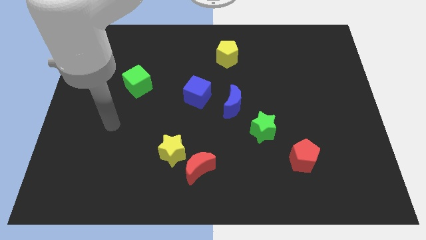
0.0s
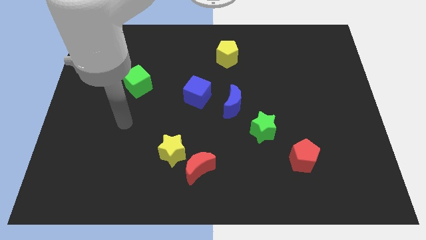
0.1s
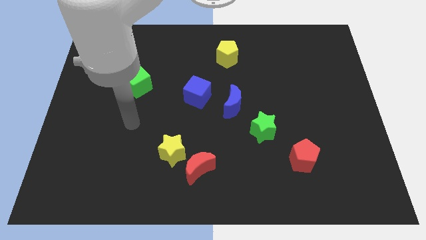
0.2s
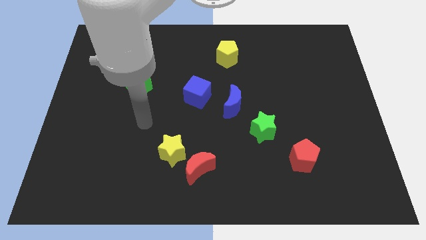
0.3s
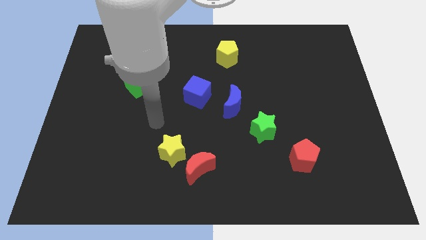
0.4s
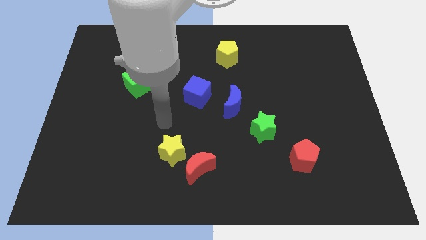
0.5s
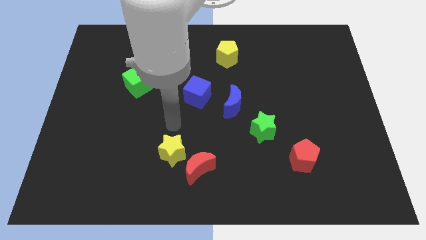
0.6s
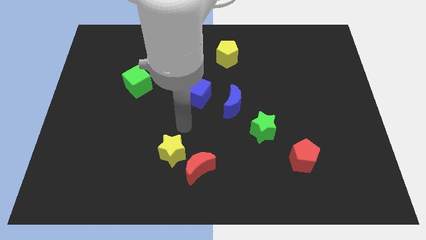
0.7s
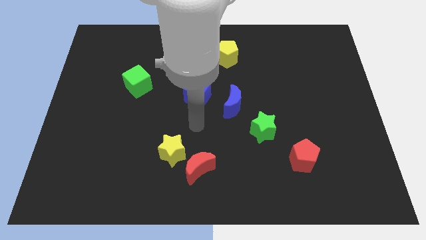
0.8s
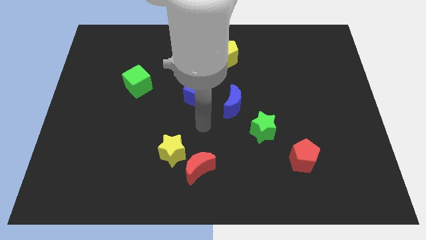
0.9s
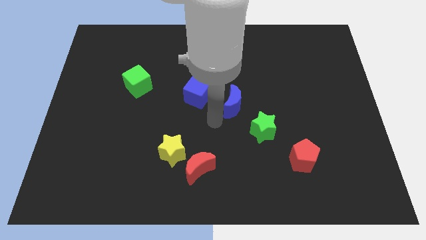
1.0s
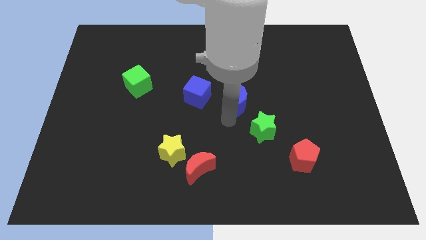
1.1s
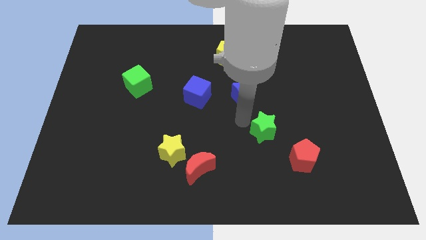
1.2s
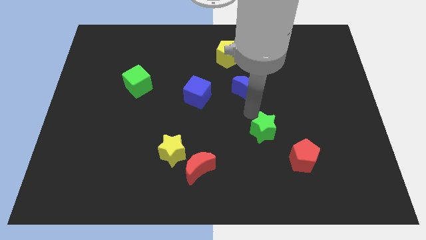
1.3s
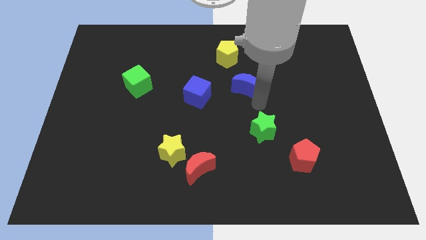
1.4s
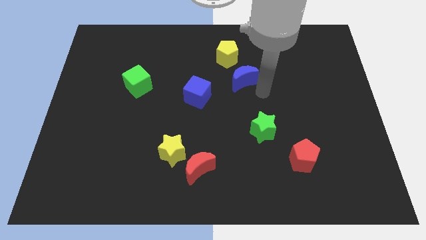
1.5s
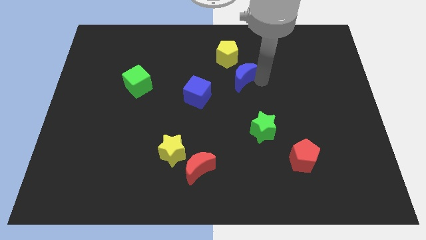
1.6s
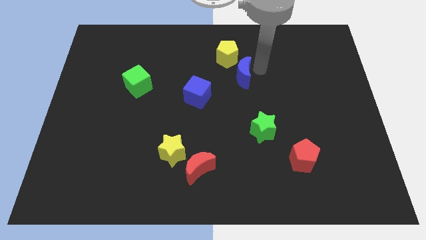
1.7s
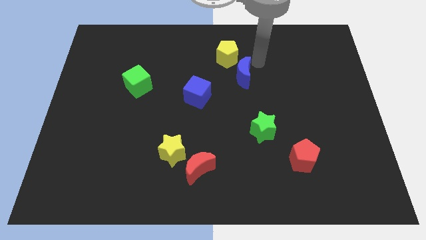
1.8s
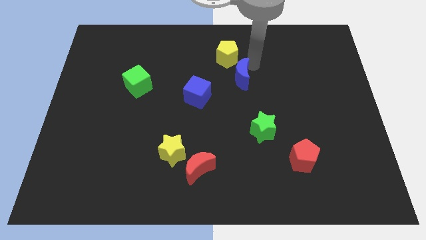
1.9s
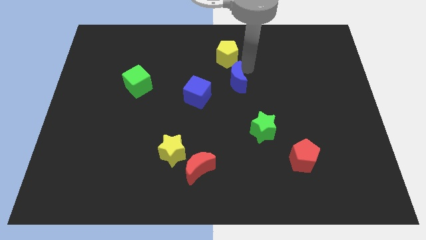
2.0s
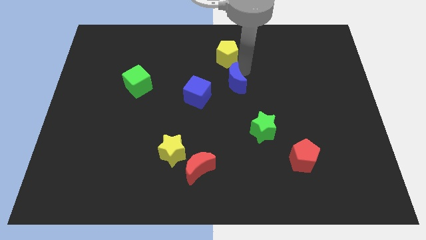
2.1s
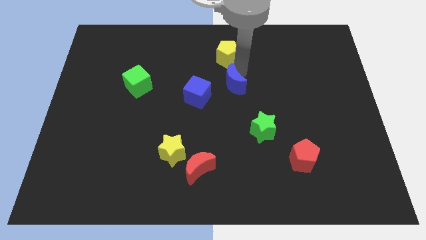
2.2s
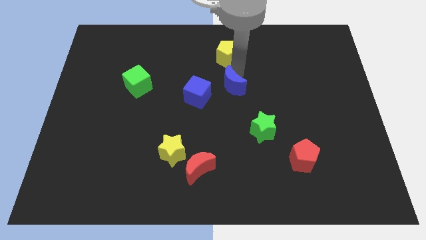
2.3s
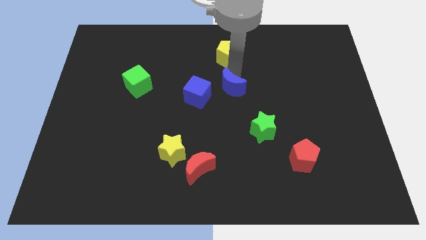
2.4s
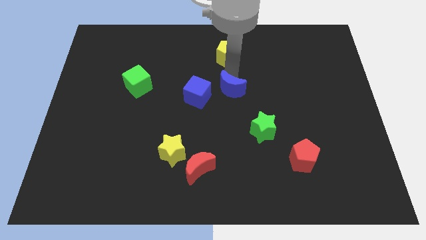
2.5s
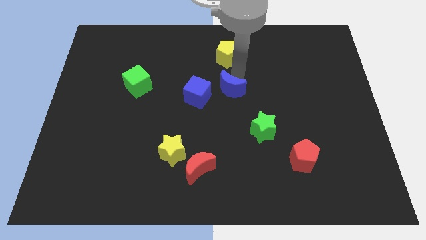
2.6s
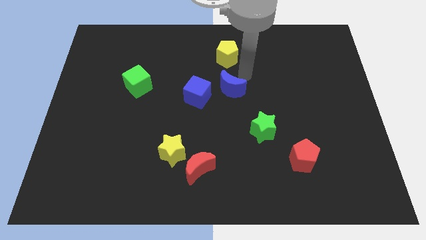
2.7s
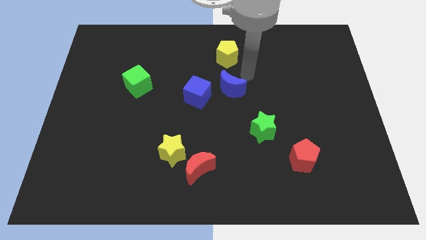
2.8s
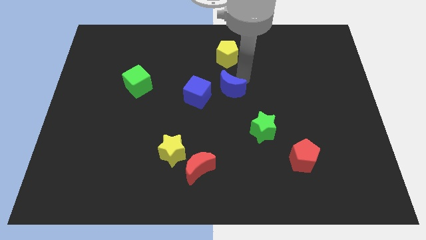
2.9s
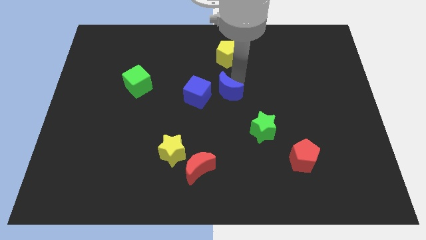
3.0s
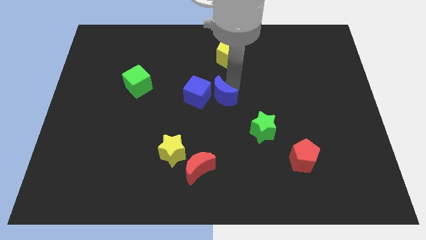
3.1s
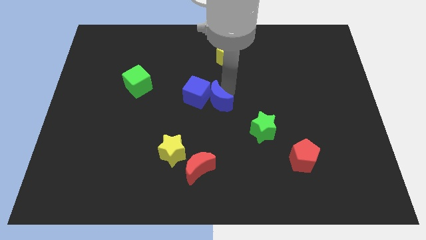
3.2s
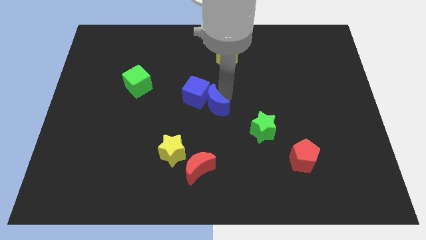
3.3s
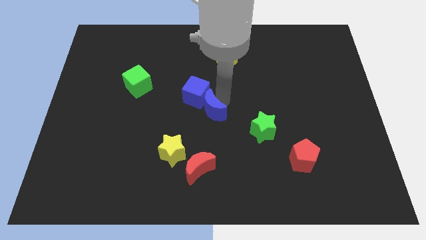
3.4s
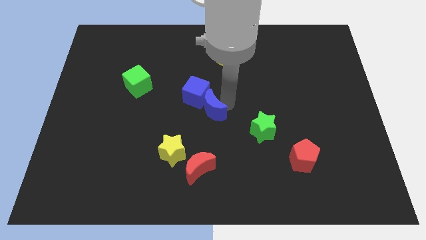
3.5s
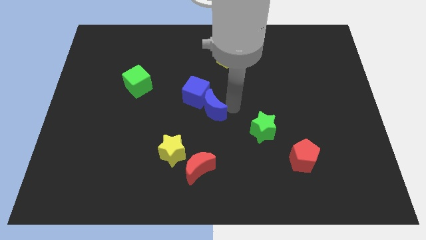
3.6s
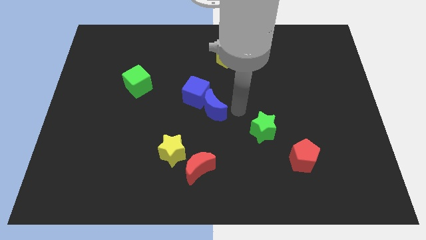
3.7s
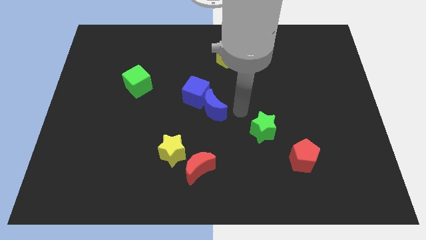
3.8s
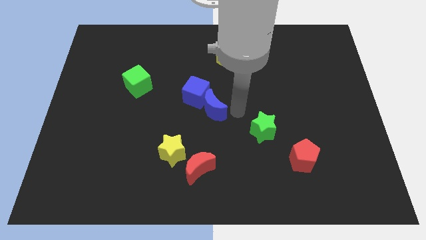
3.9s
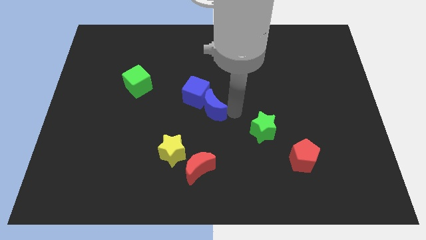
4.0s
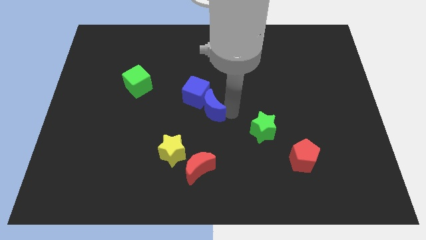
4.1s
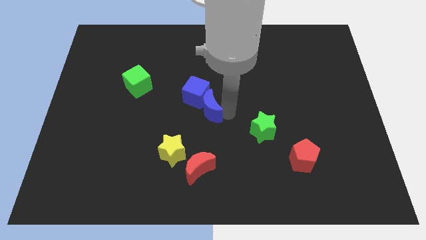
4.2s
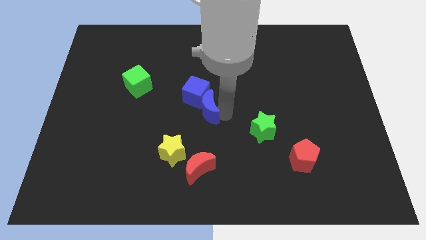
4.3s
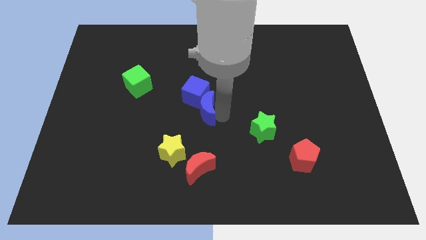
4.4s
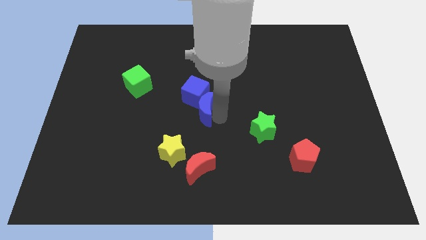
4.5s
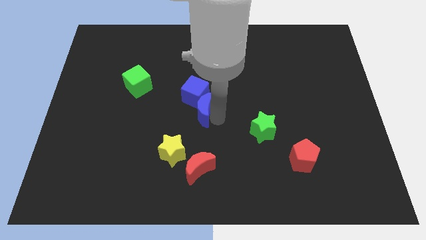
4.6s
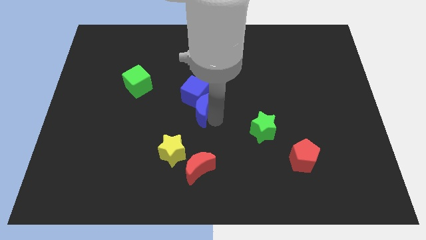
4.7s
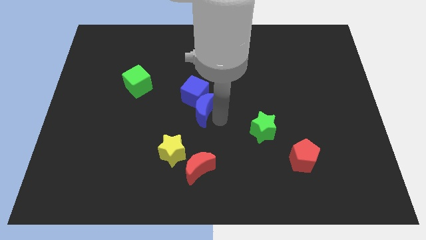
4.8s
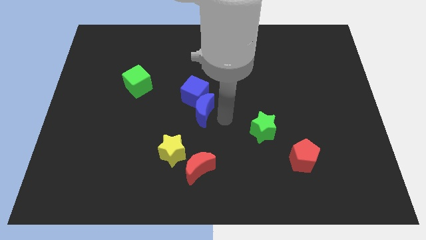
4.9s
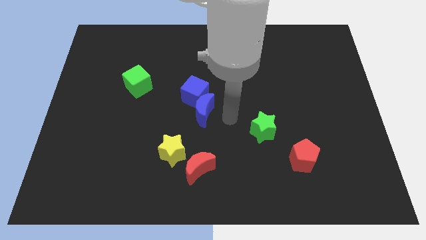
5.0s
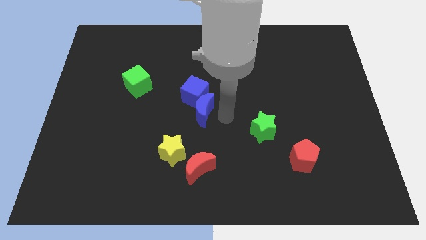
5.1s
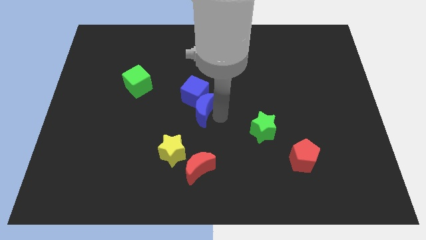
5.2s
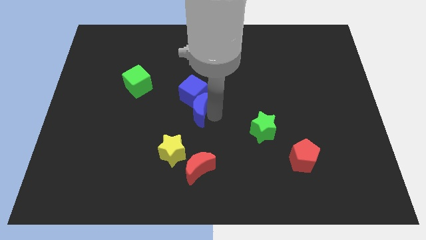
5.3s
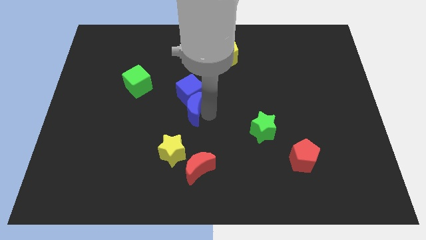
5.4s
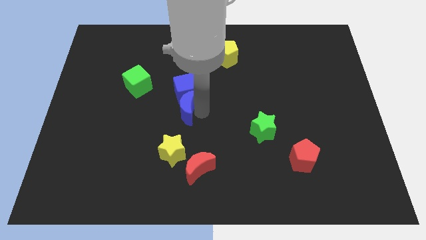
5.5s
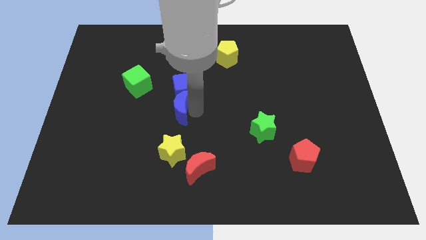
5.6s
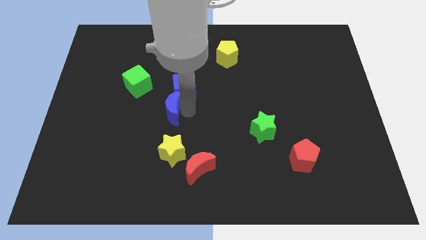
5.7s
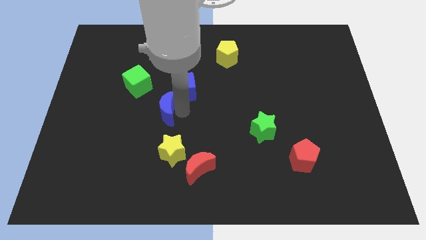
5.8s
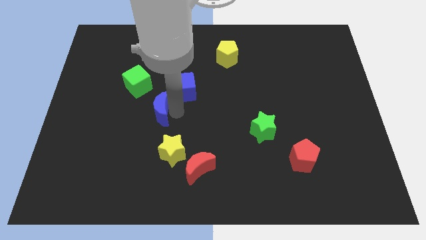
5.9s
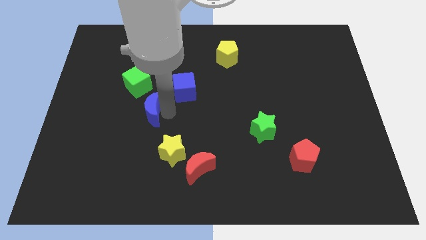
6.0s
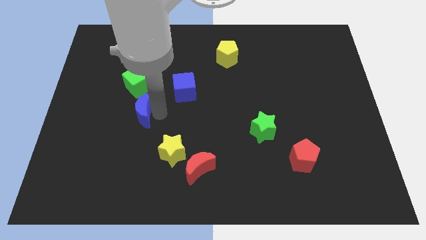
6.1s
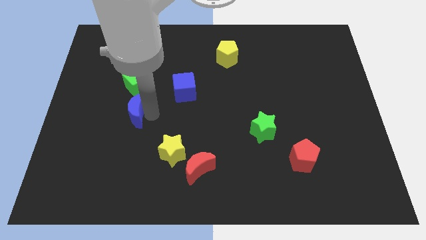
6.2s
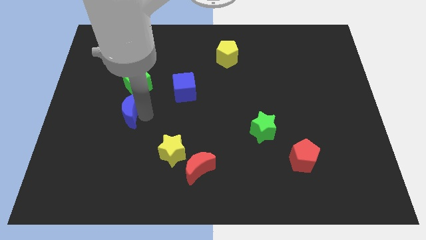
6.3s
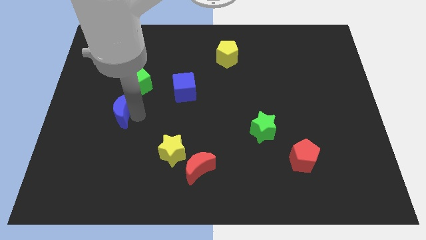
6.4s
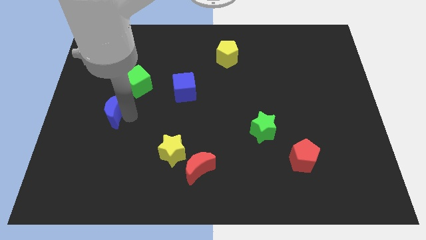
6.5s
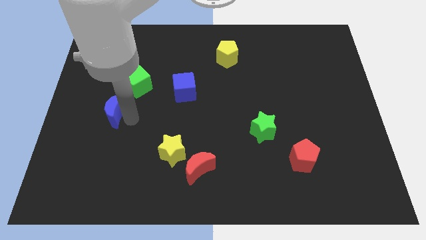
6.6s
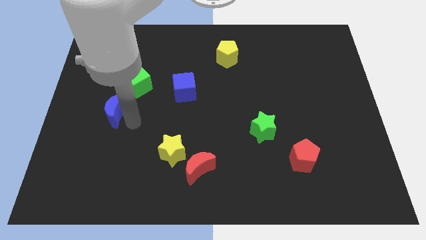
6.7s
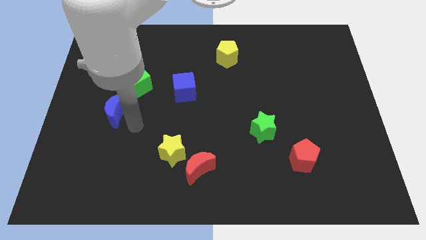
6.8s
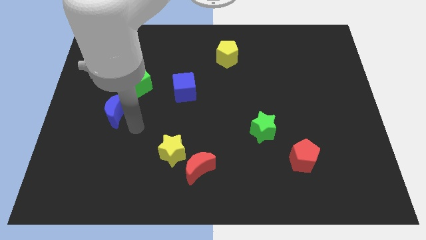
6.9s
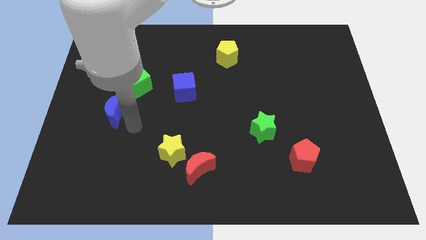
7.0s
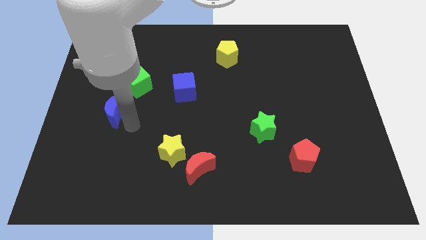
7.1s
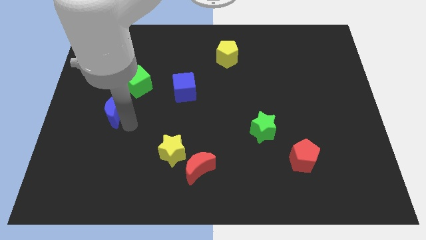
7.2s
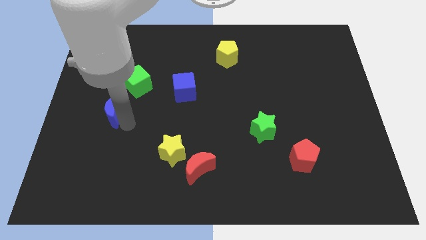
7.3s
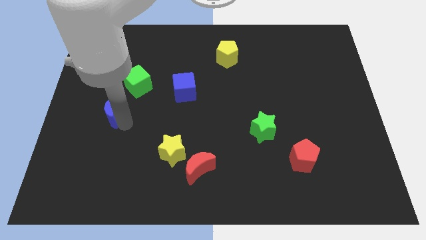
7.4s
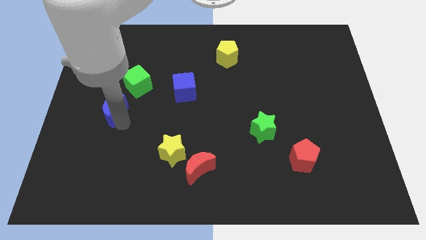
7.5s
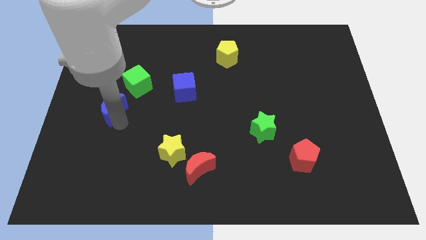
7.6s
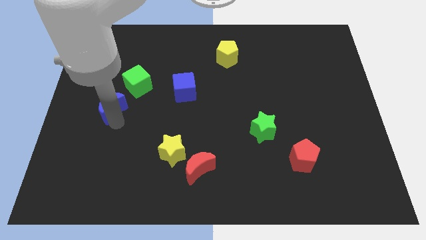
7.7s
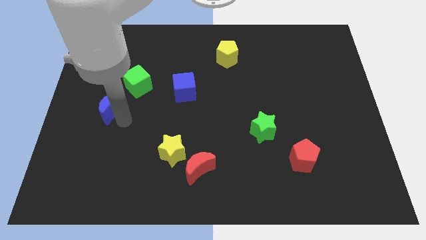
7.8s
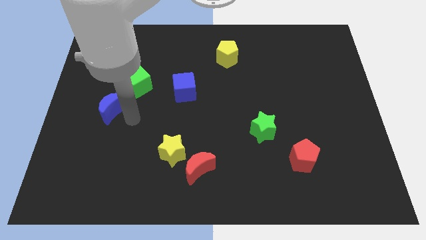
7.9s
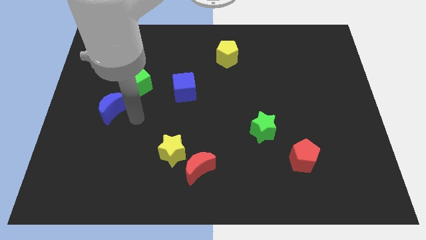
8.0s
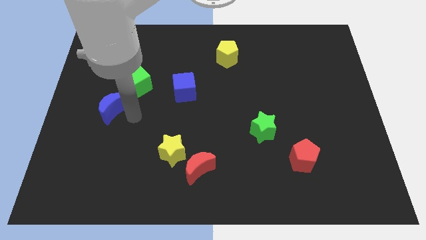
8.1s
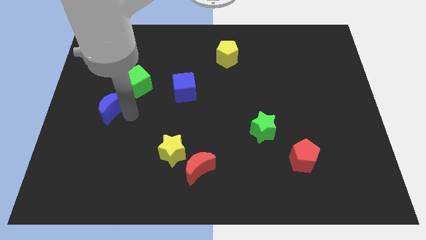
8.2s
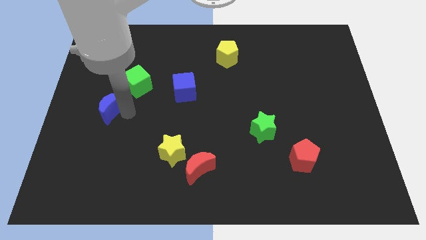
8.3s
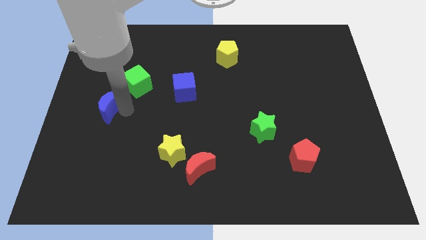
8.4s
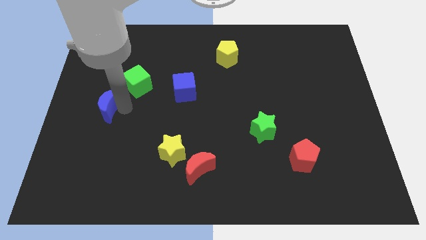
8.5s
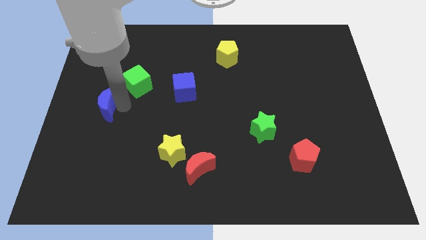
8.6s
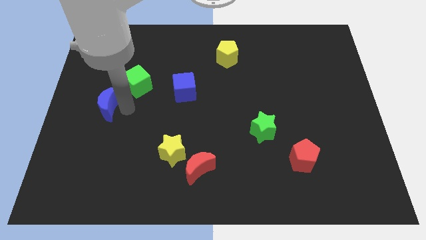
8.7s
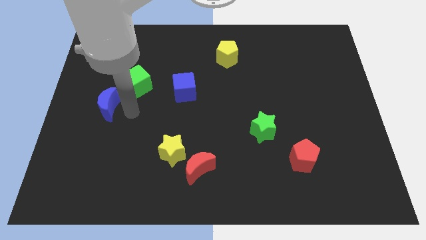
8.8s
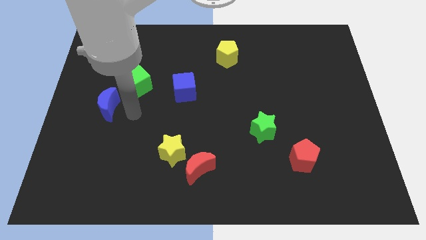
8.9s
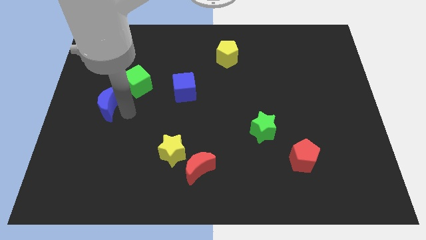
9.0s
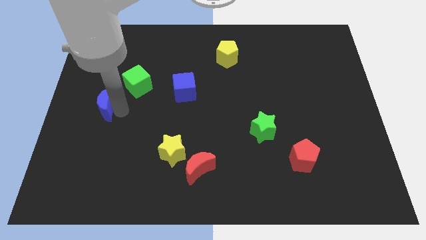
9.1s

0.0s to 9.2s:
push the blue moon to the left side of the board
